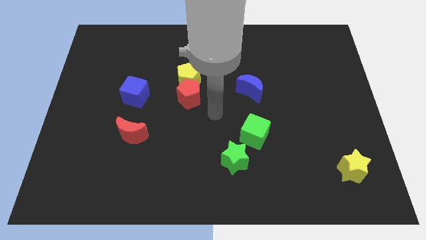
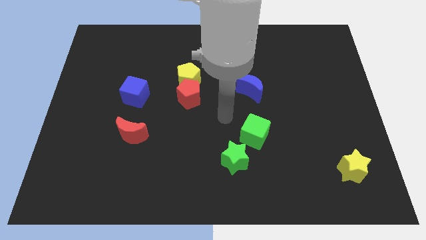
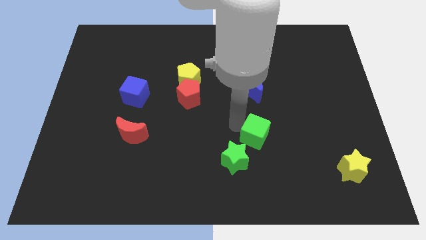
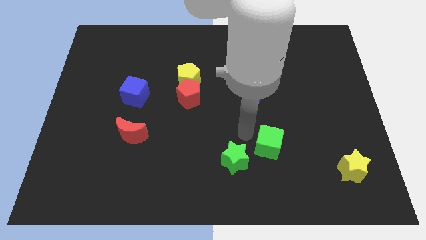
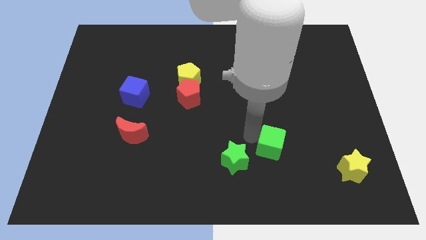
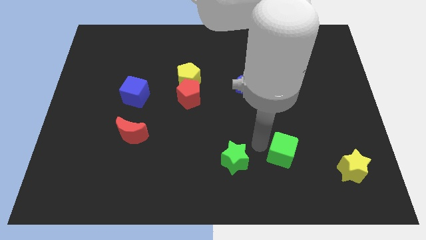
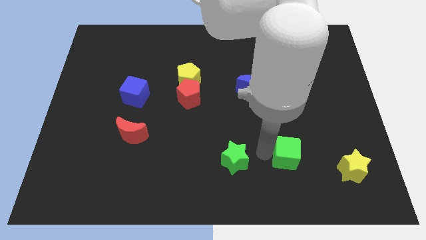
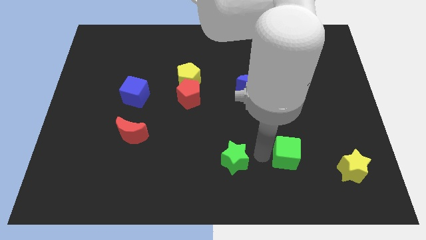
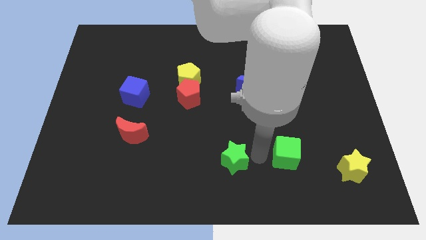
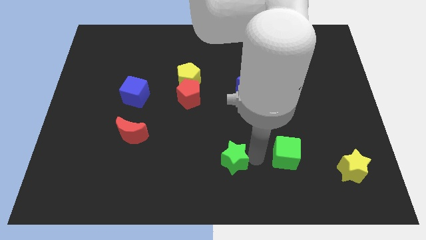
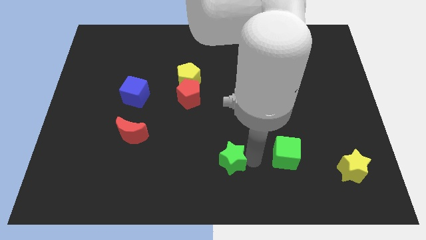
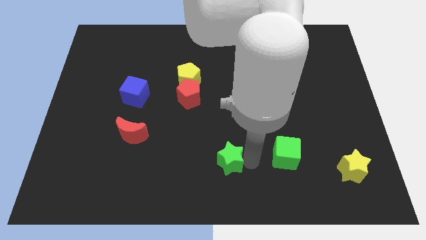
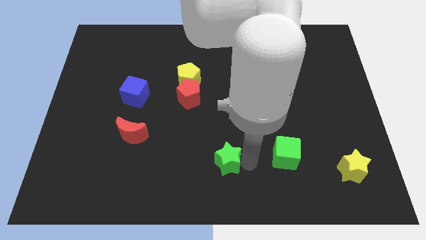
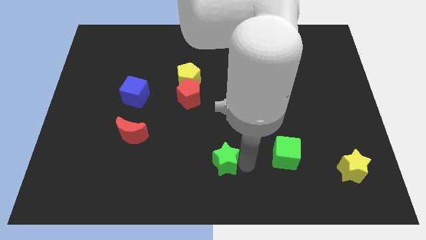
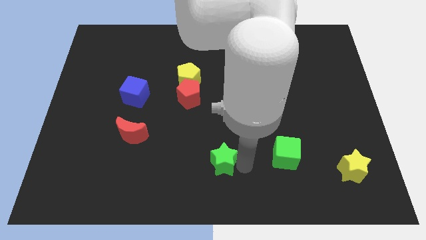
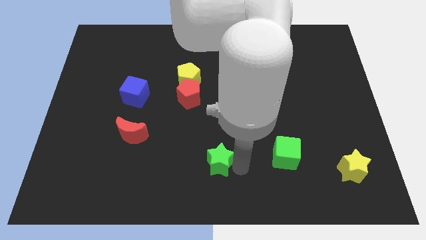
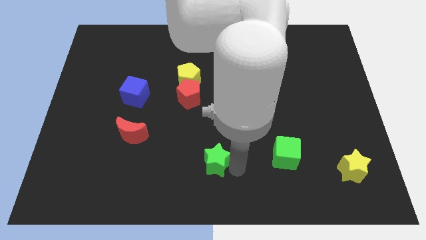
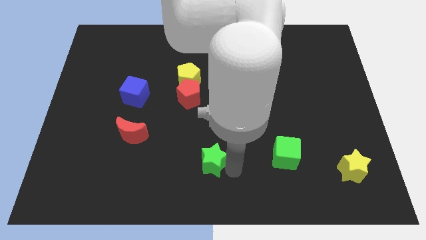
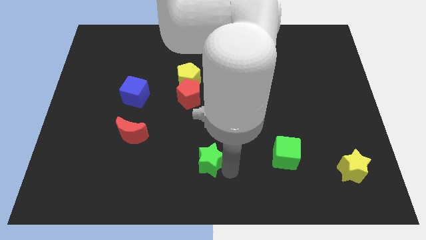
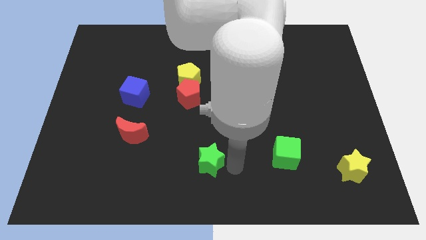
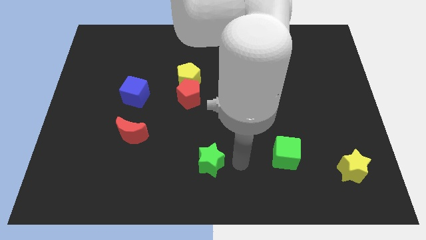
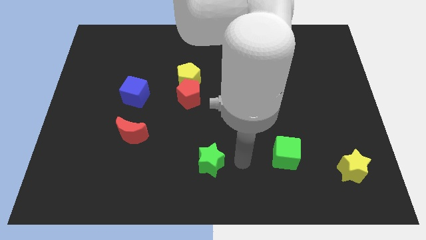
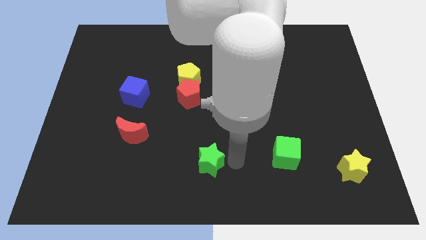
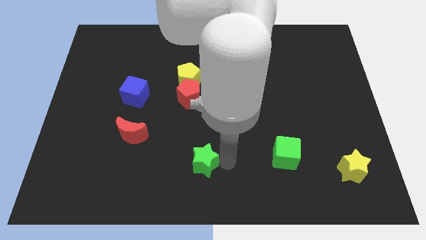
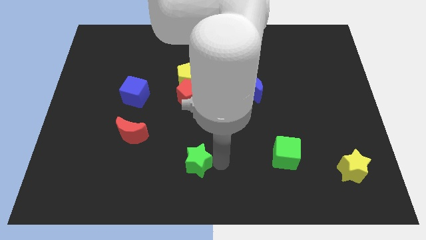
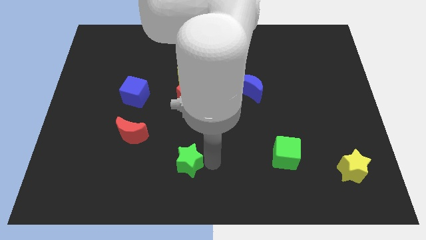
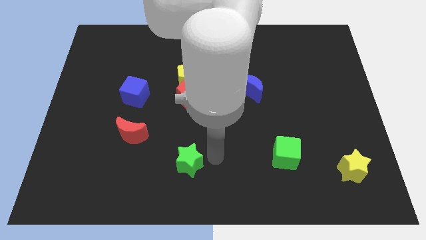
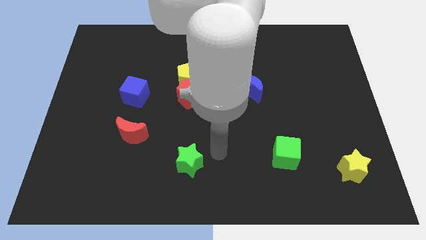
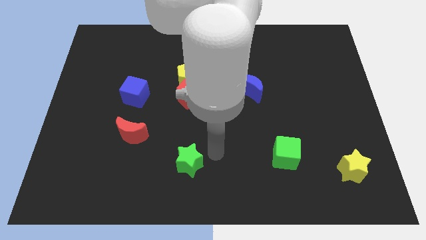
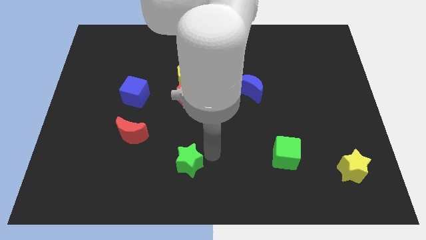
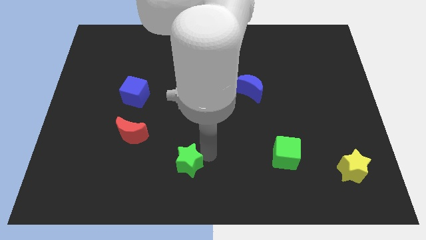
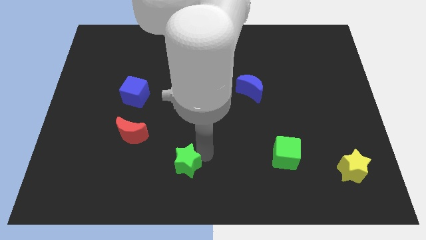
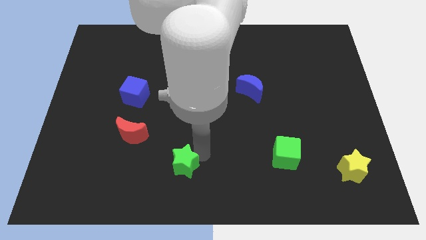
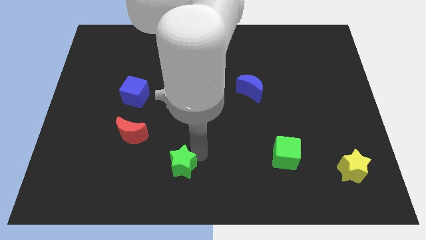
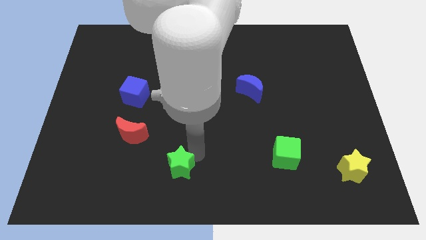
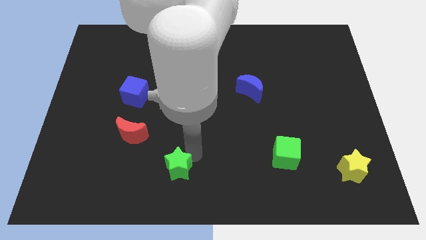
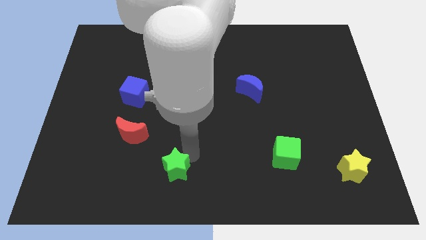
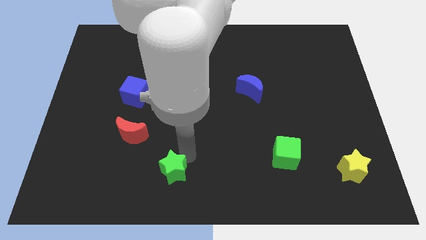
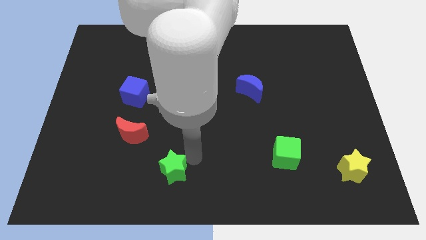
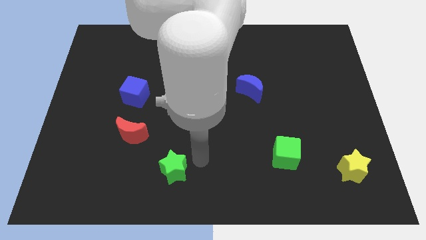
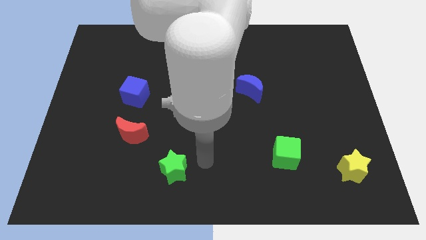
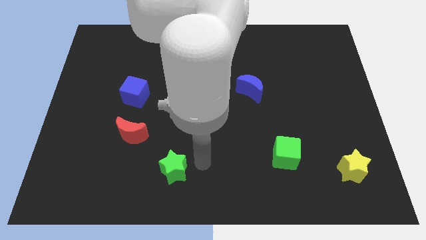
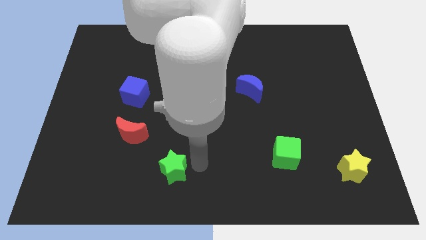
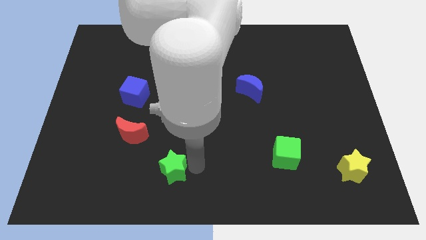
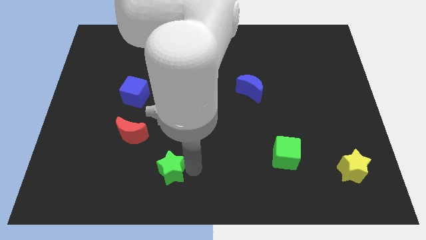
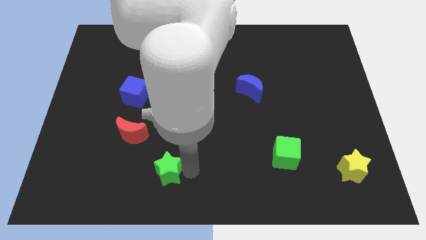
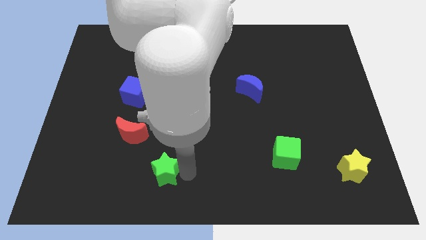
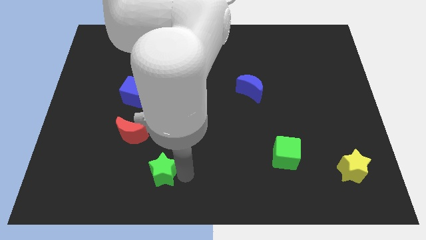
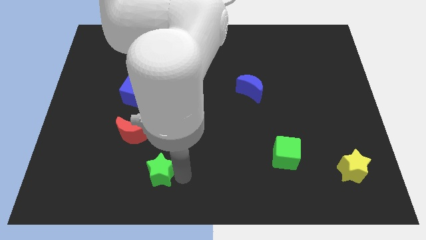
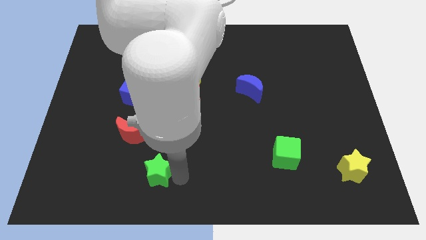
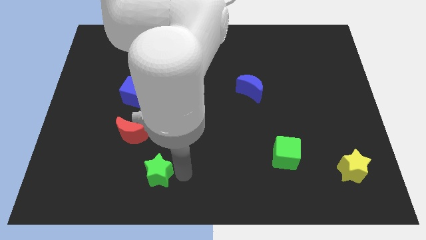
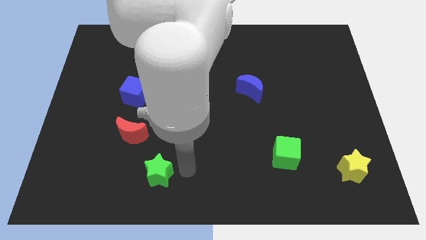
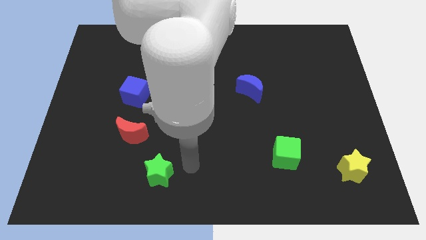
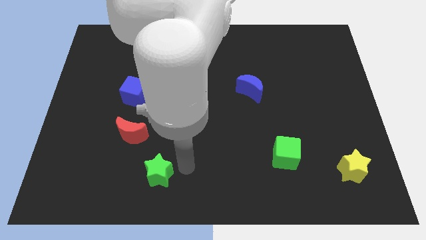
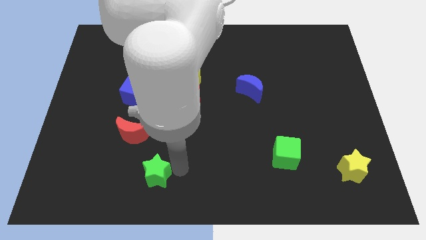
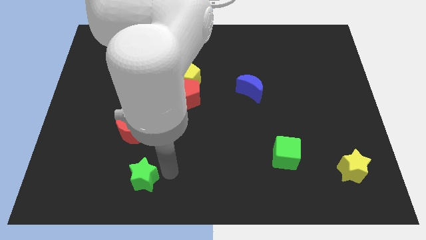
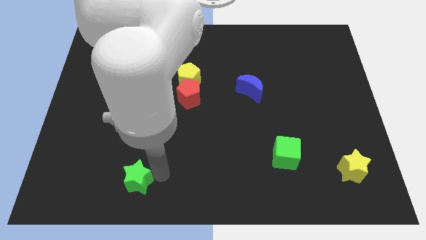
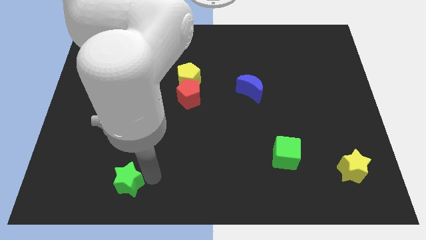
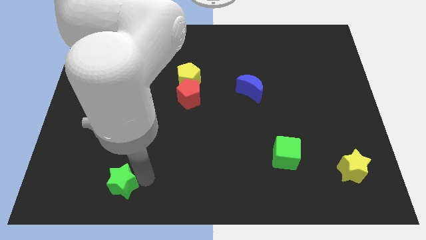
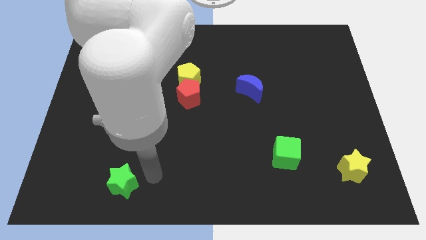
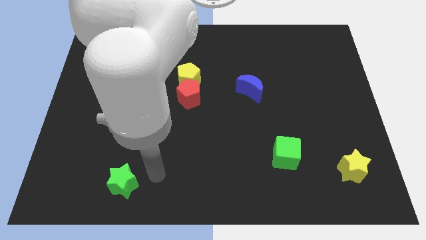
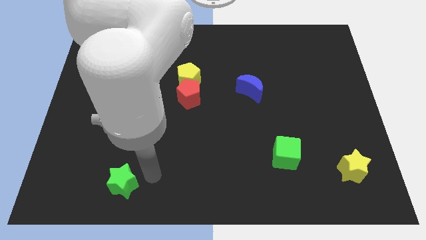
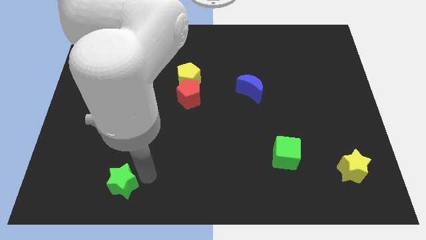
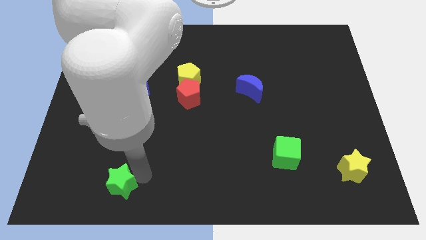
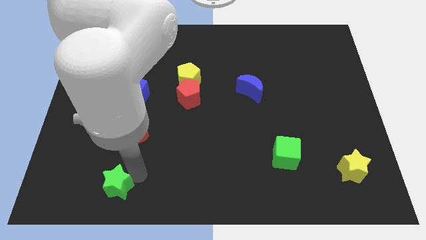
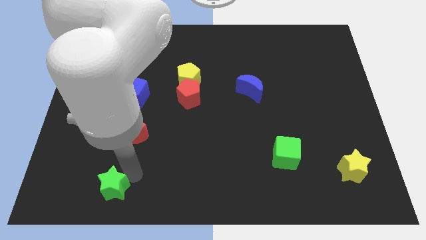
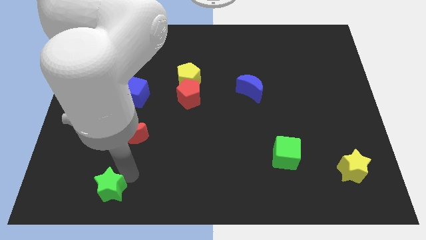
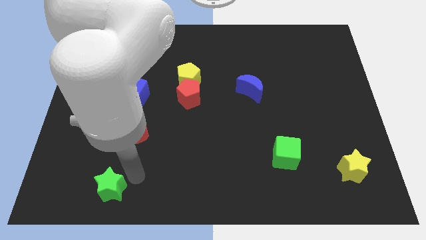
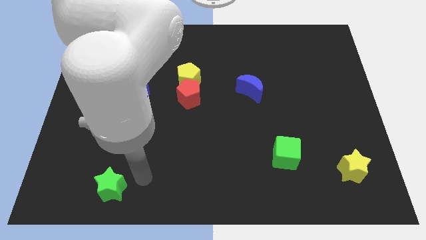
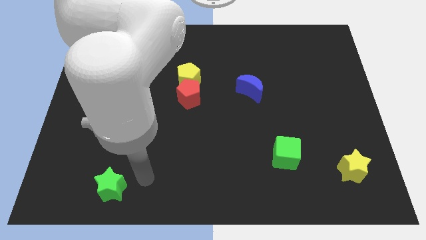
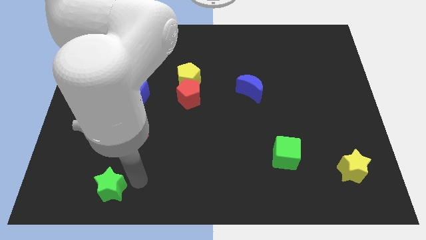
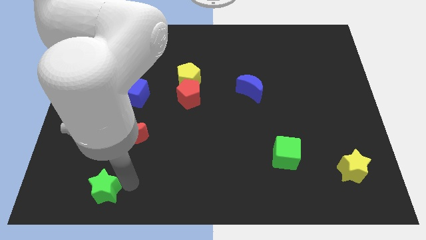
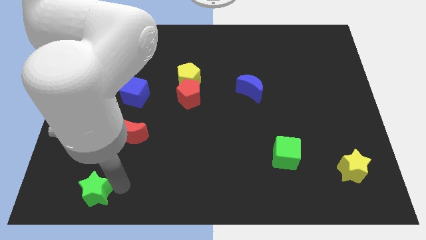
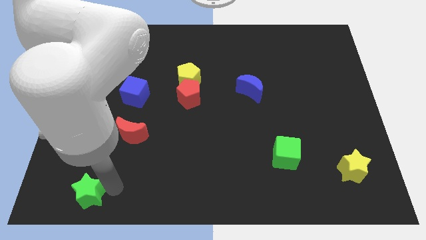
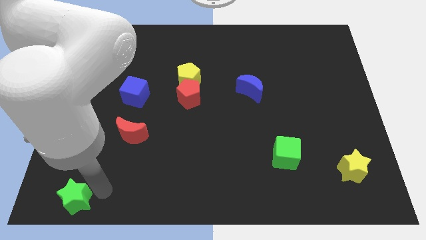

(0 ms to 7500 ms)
move the green star to the bottom left corner
